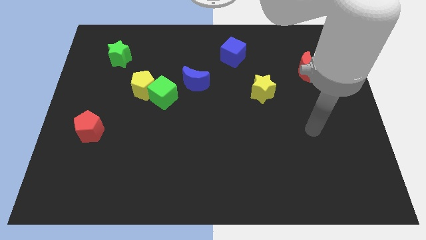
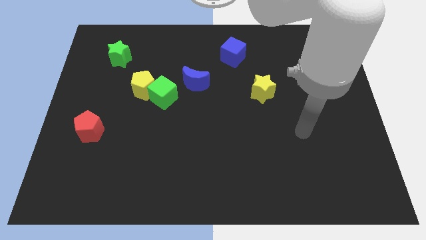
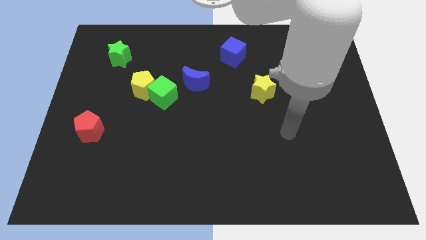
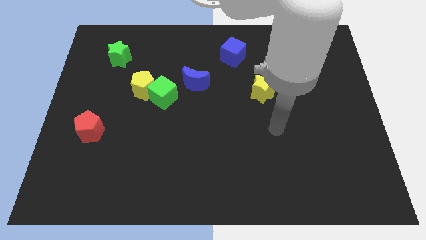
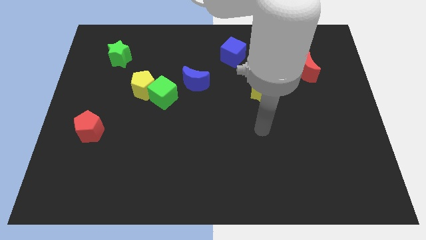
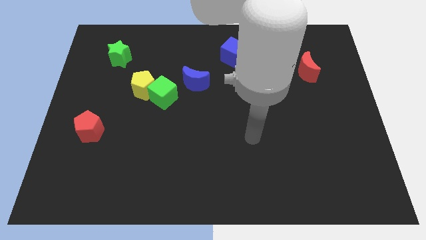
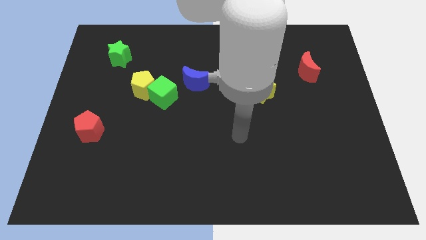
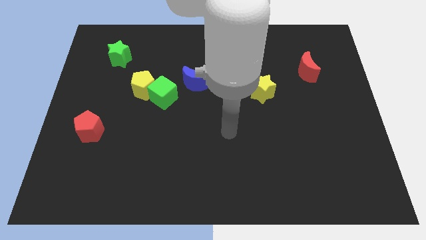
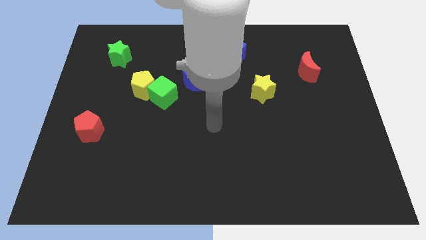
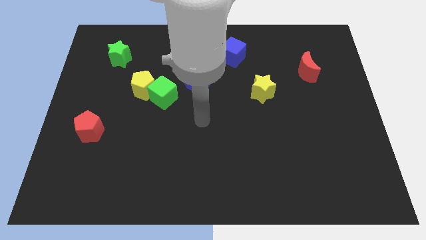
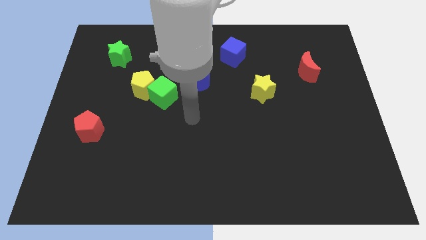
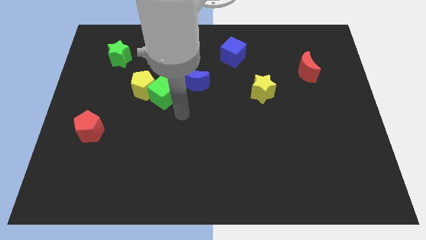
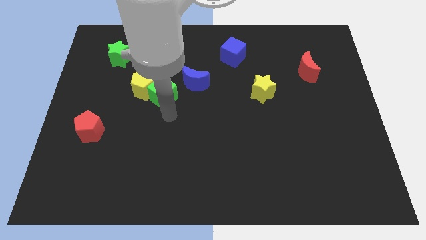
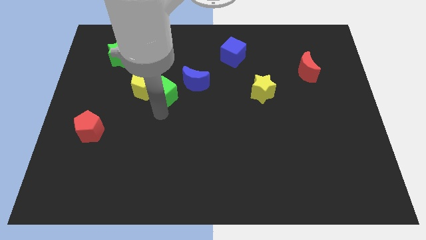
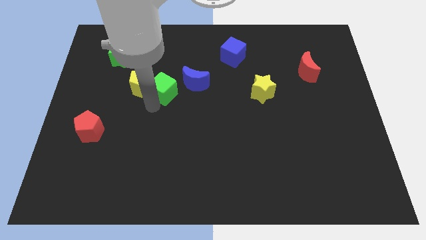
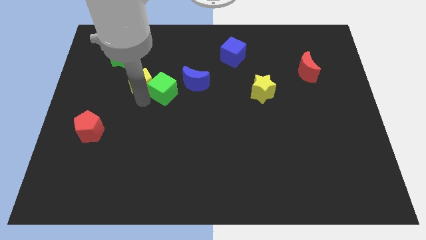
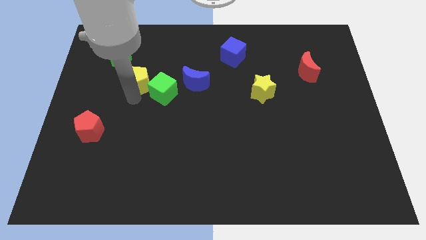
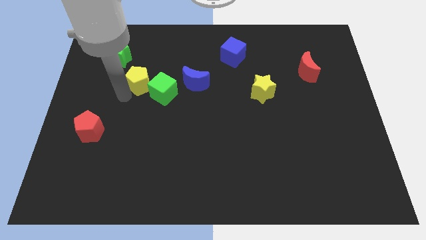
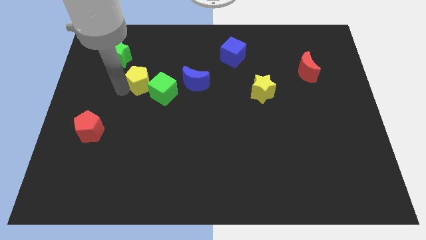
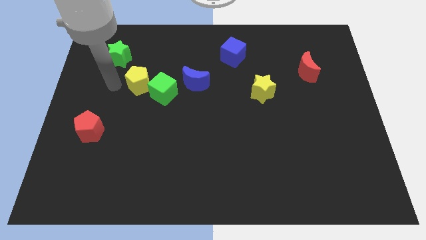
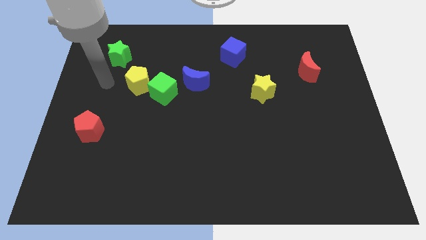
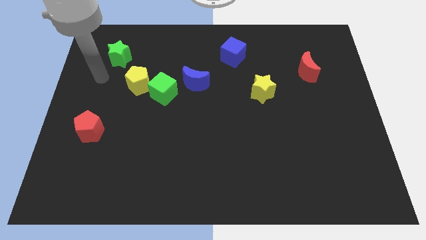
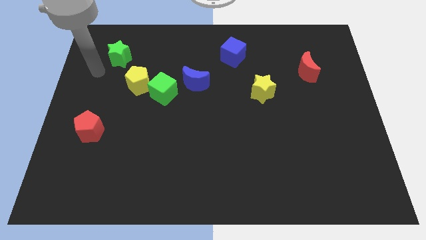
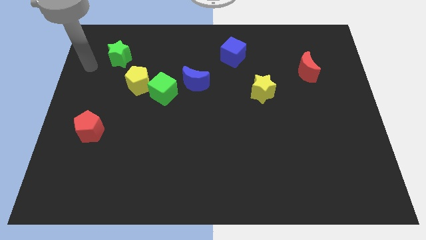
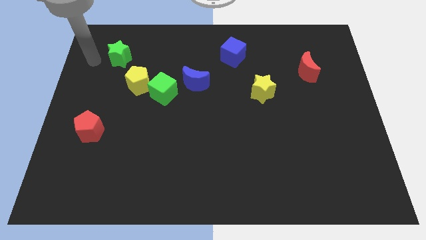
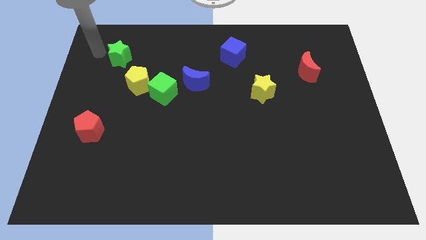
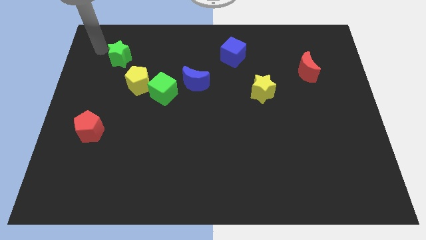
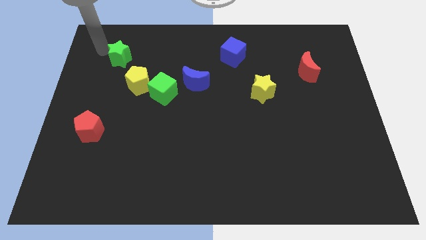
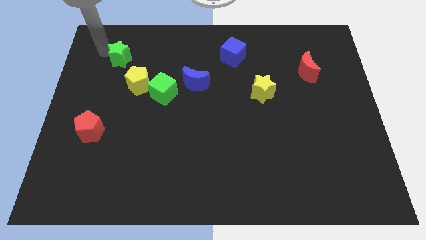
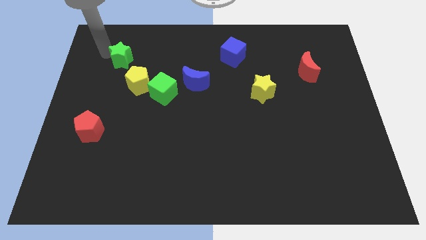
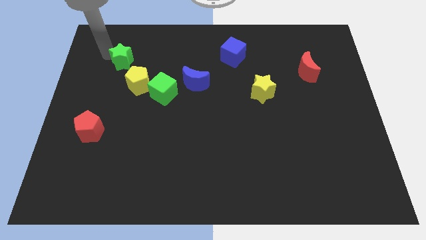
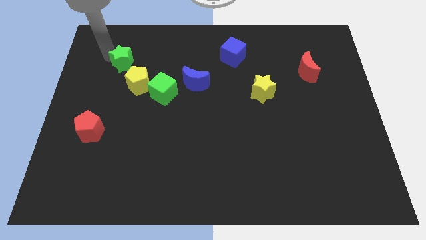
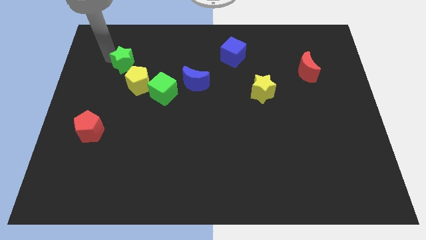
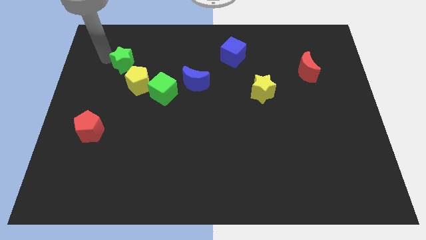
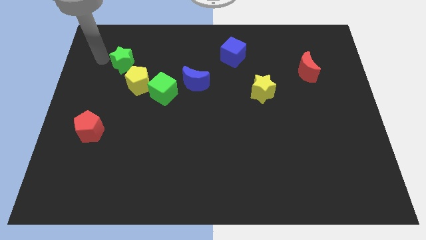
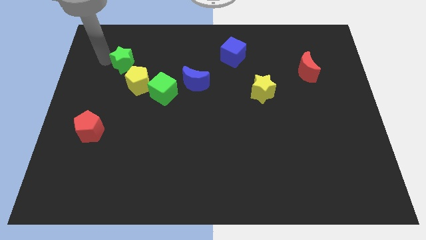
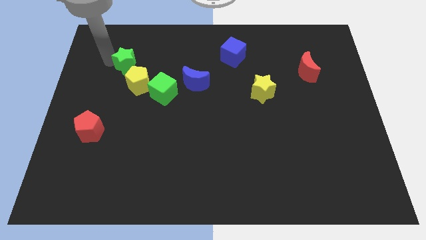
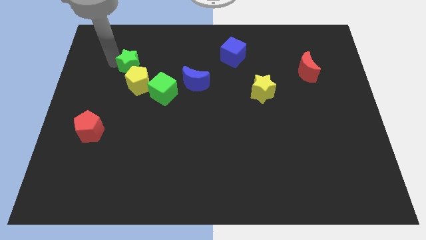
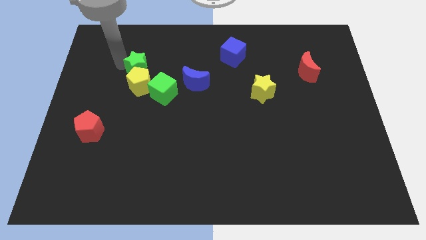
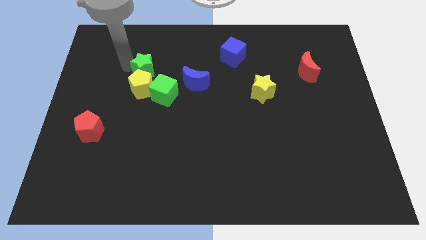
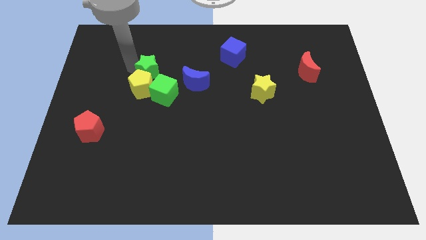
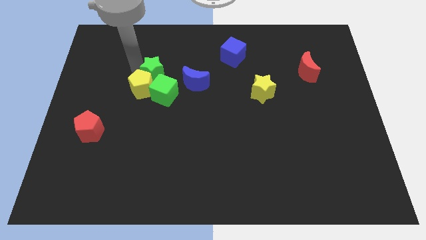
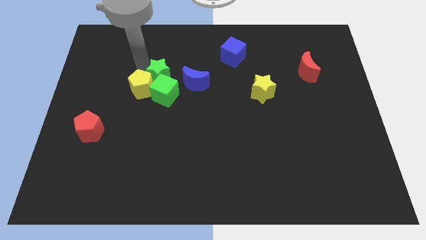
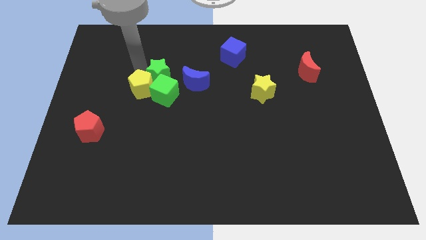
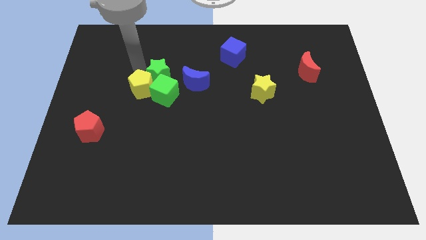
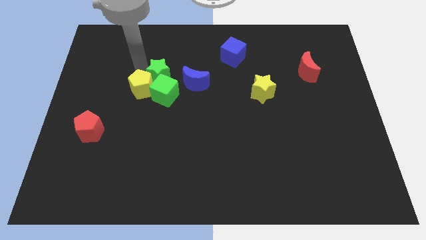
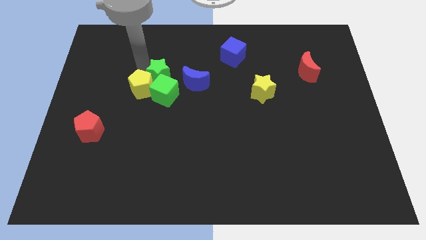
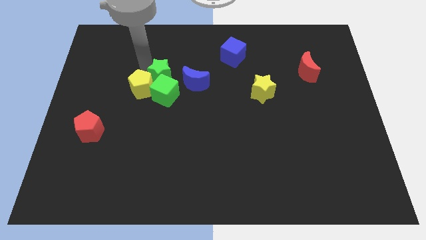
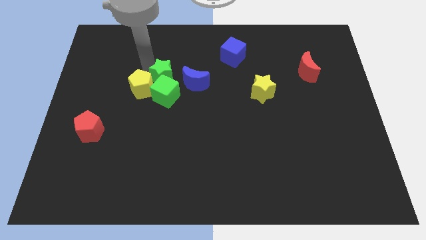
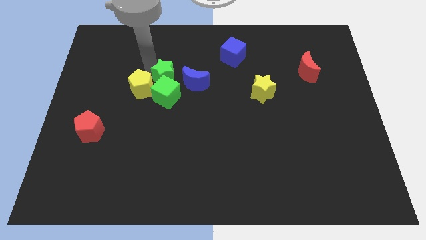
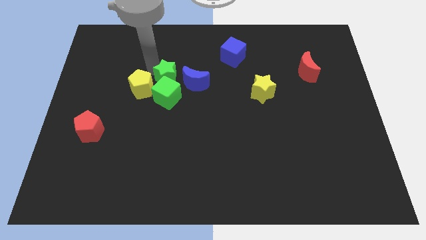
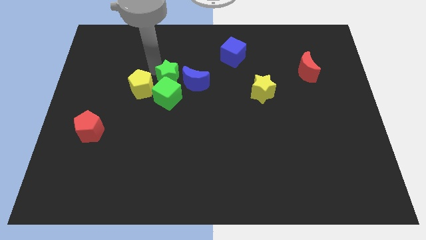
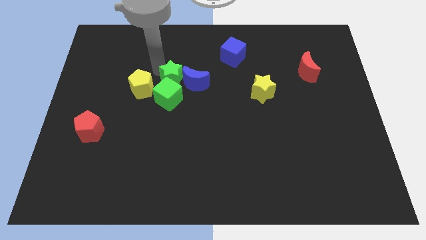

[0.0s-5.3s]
put the green star to the center

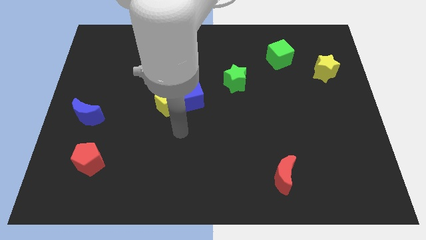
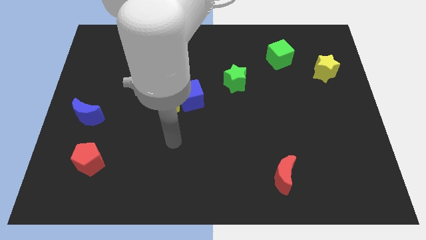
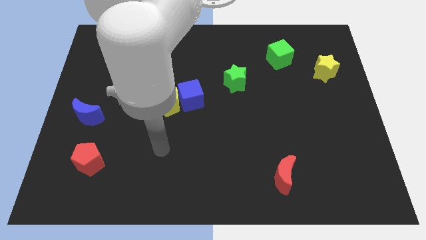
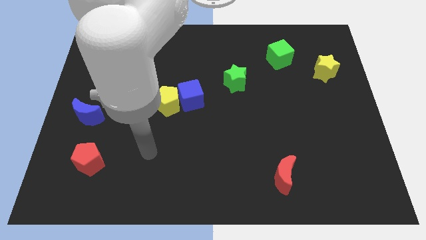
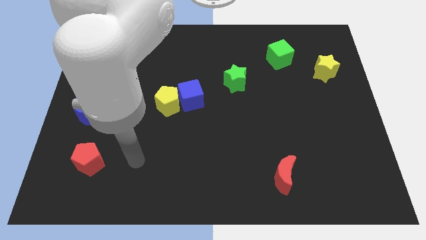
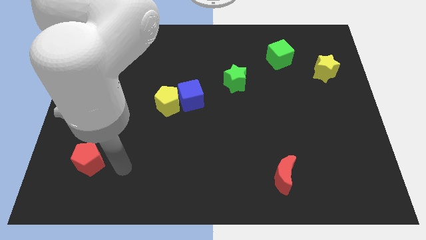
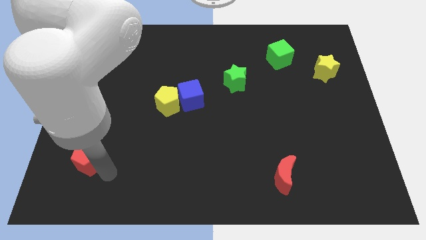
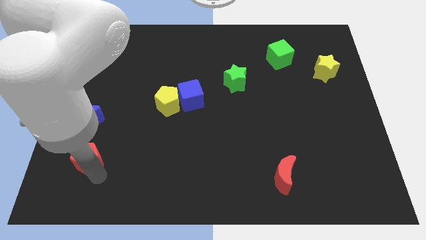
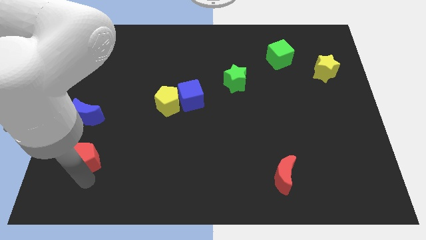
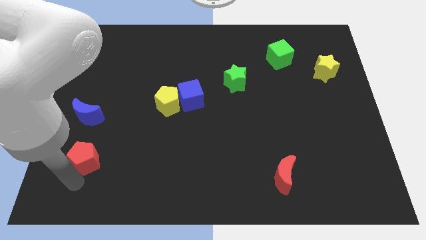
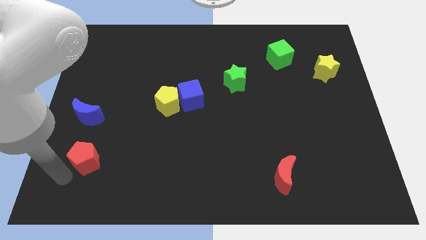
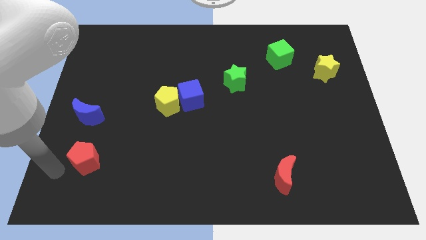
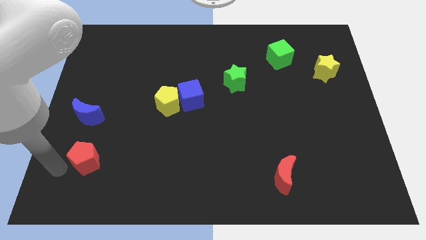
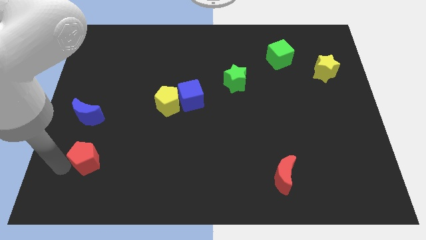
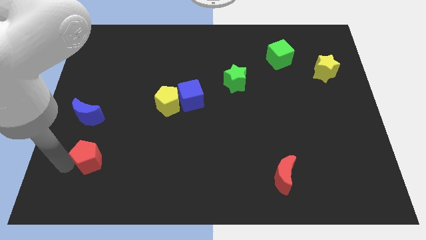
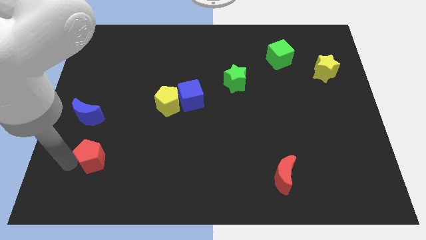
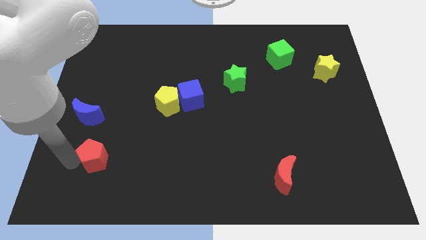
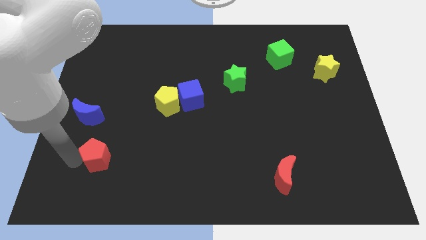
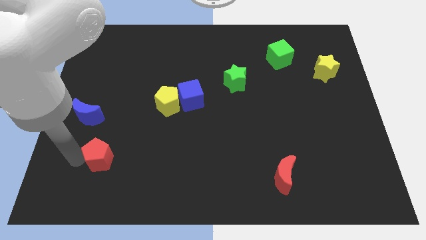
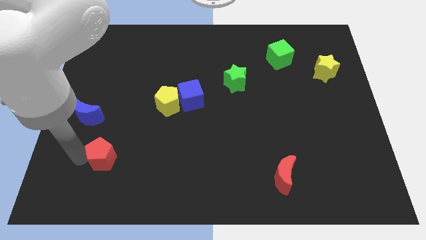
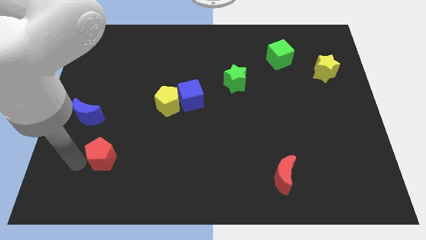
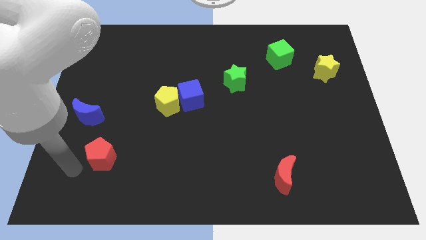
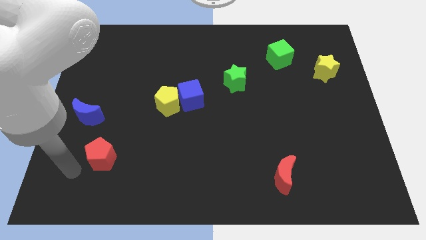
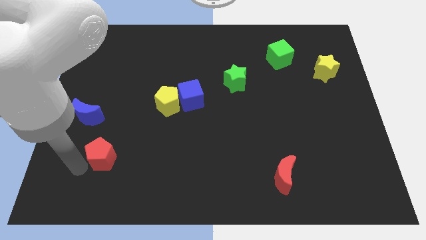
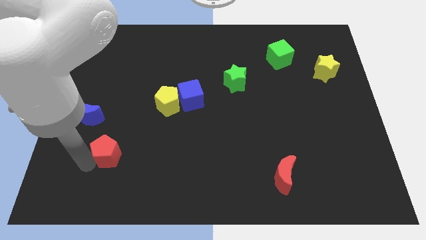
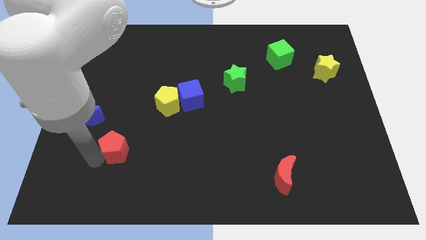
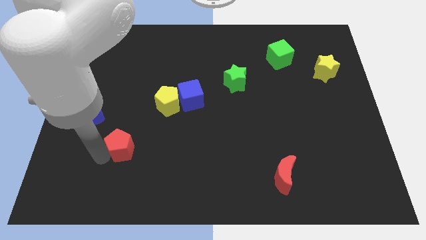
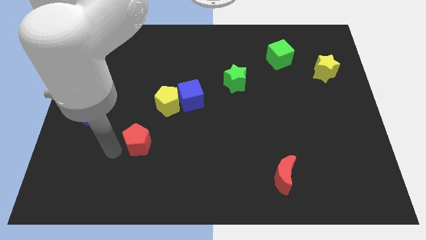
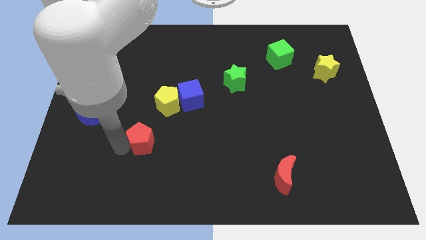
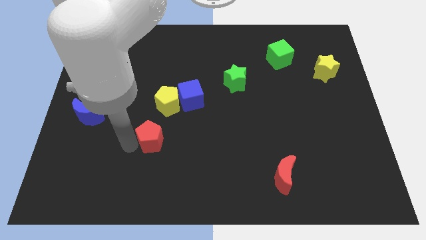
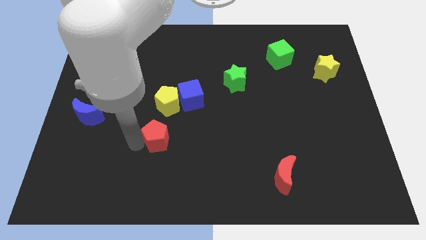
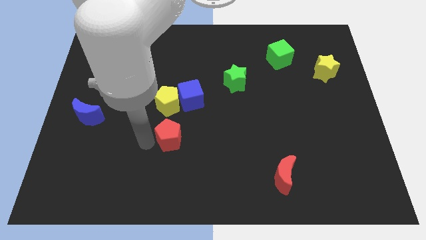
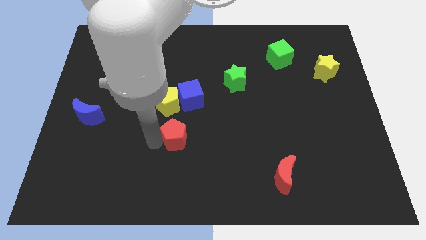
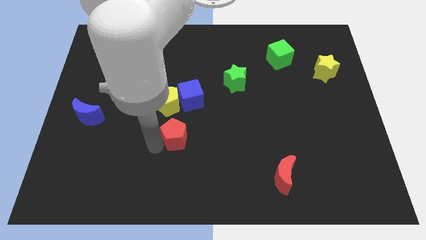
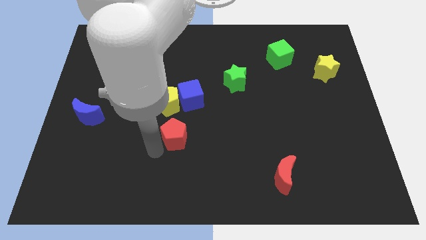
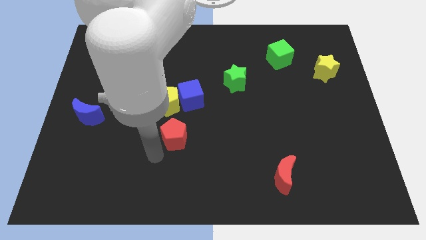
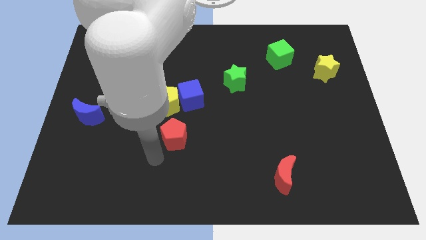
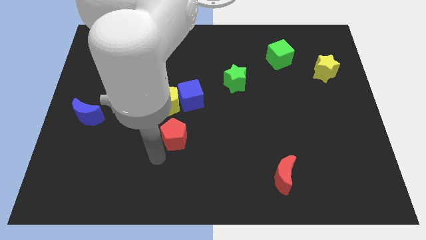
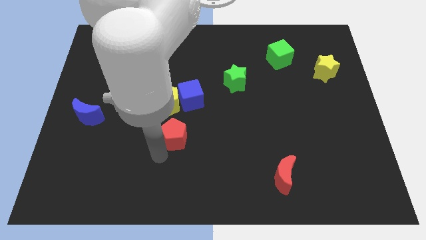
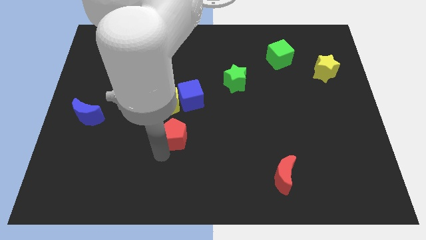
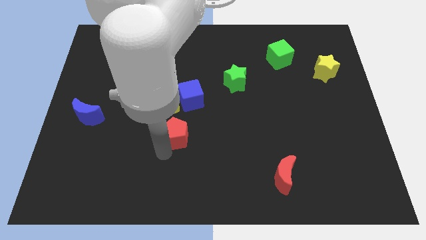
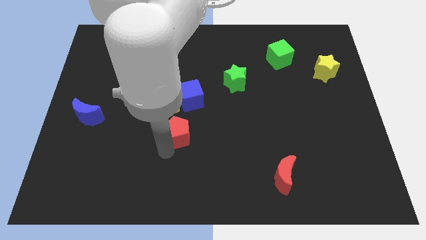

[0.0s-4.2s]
put the red pentagon to the middle of the board
